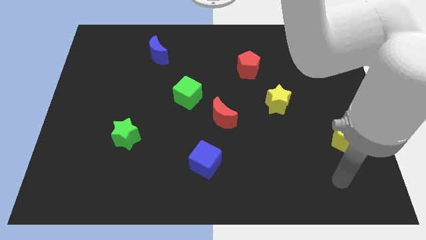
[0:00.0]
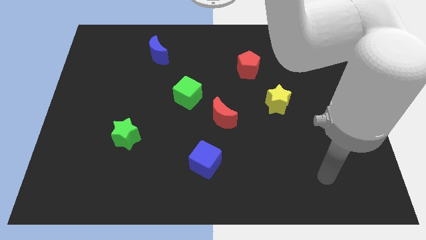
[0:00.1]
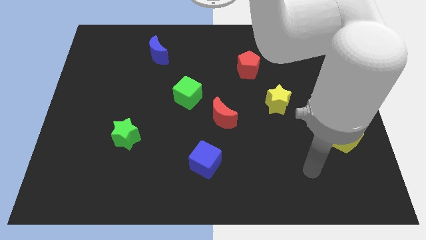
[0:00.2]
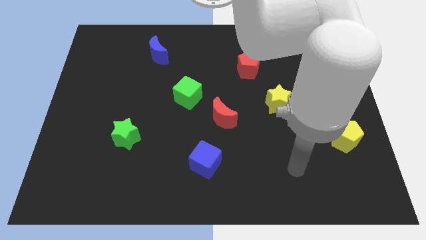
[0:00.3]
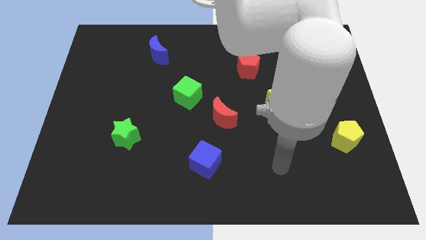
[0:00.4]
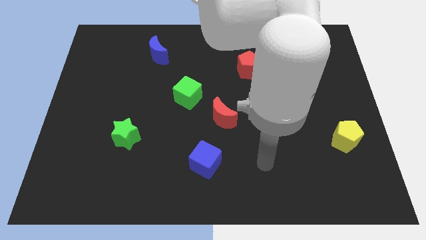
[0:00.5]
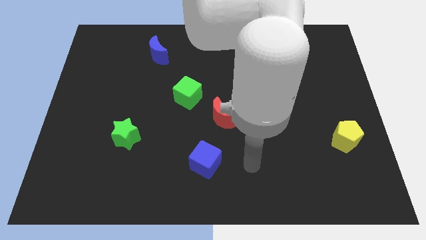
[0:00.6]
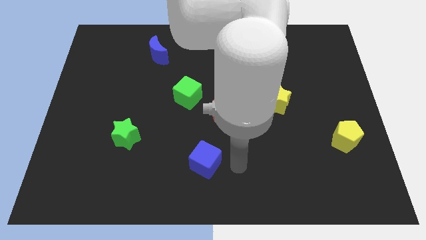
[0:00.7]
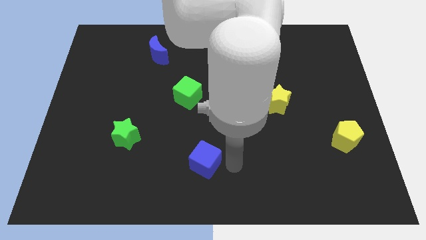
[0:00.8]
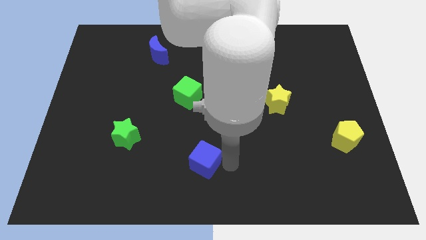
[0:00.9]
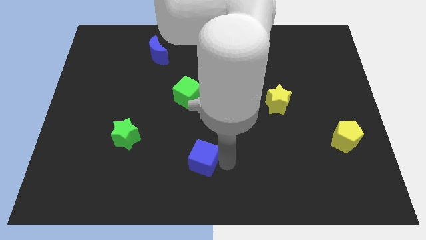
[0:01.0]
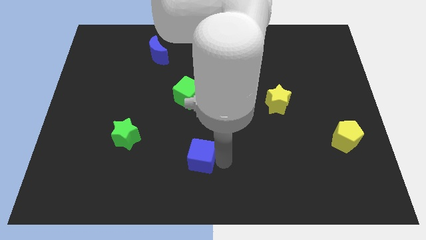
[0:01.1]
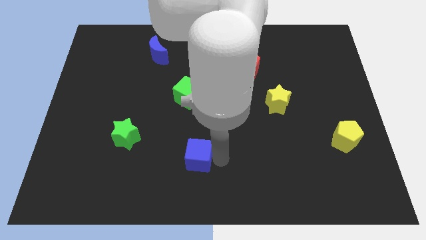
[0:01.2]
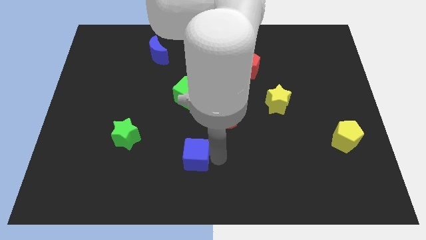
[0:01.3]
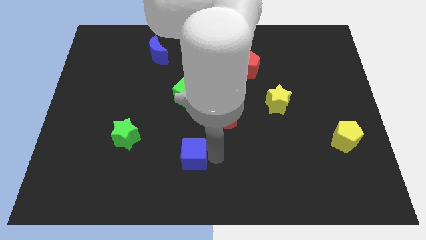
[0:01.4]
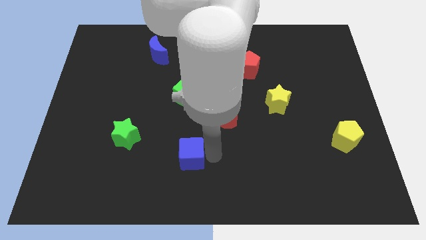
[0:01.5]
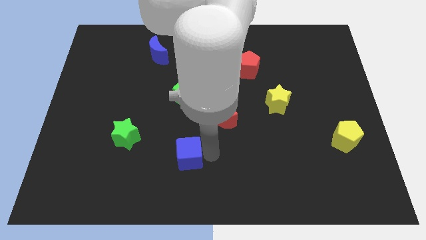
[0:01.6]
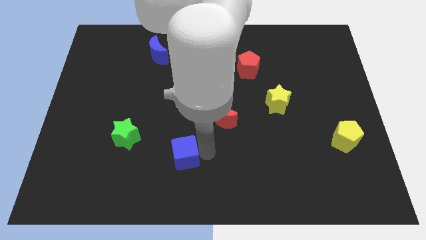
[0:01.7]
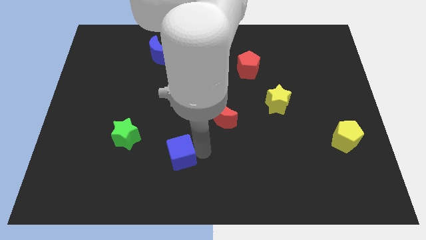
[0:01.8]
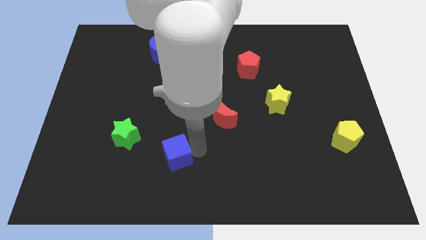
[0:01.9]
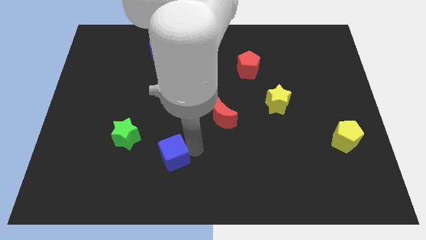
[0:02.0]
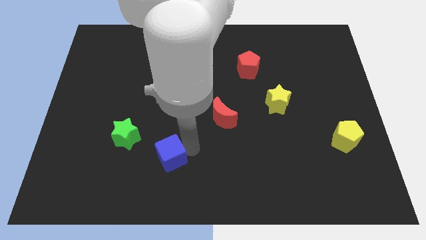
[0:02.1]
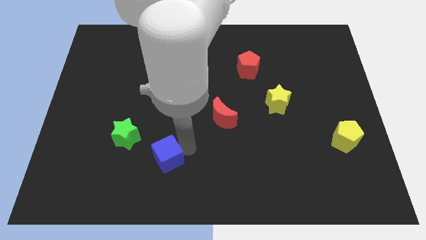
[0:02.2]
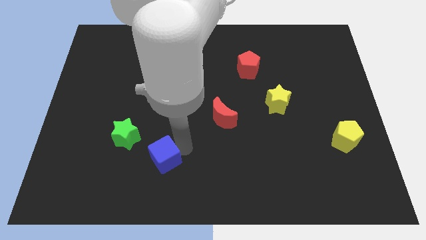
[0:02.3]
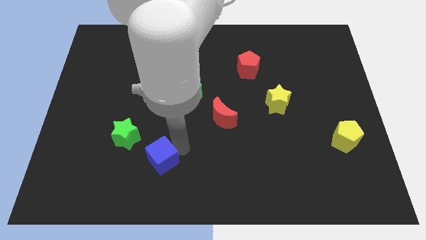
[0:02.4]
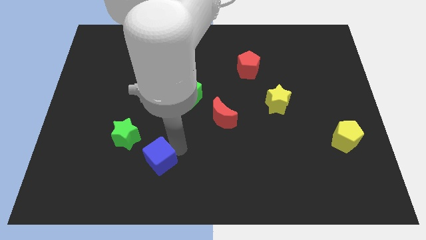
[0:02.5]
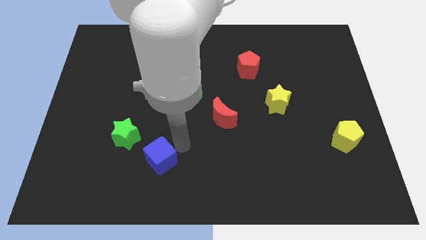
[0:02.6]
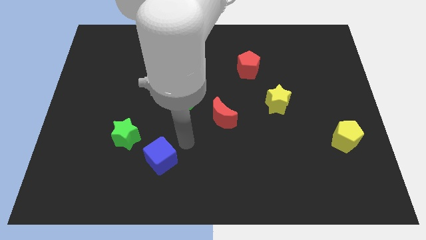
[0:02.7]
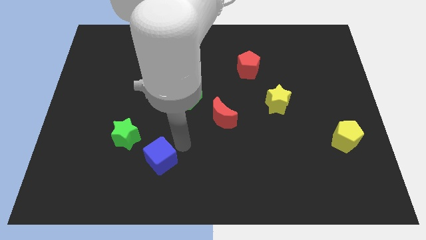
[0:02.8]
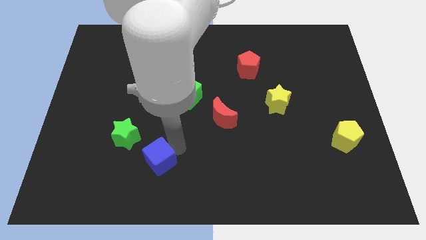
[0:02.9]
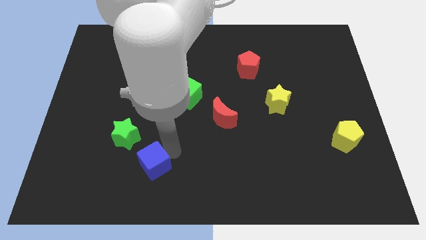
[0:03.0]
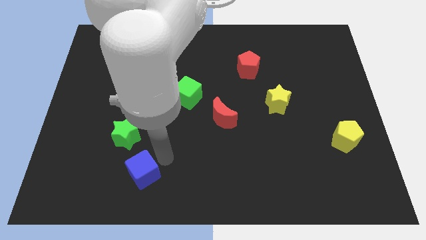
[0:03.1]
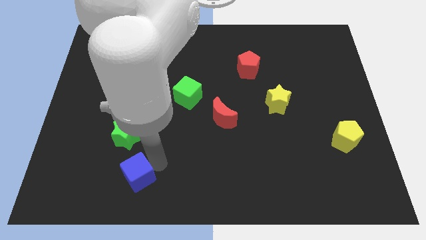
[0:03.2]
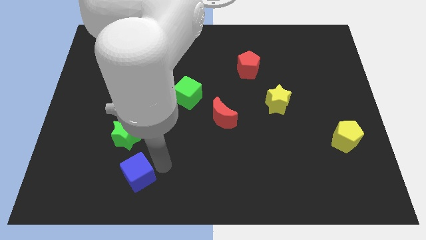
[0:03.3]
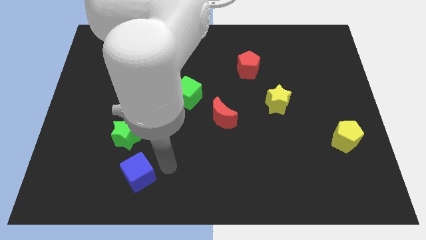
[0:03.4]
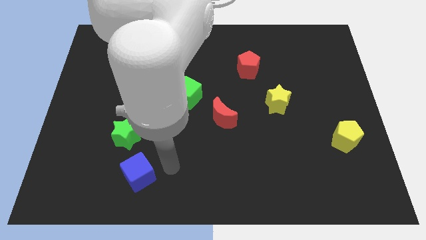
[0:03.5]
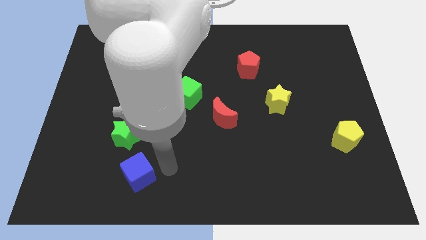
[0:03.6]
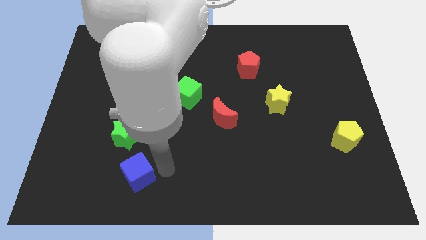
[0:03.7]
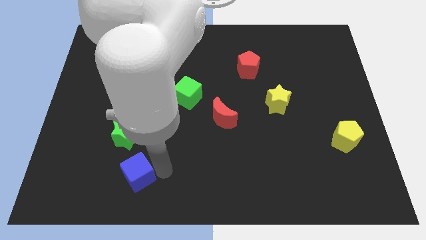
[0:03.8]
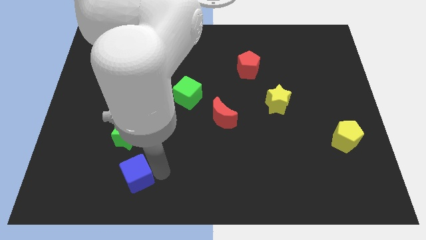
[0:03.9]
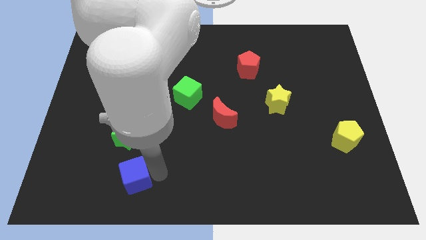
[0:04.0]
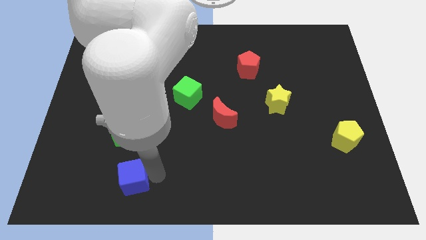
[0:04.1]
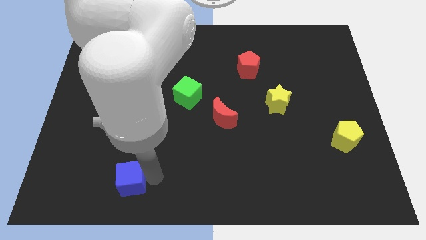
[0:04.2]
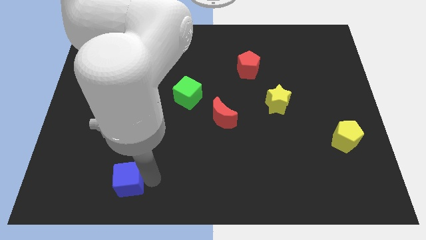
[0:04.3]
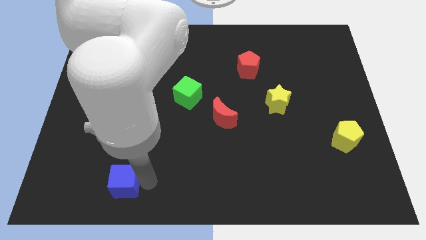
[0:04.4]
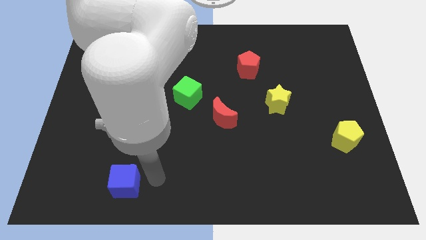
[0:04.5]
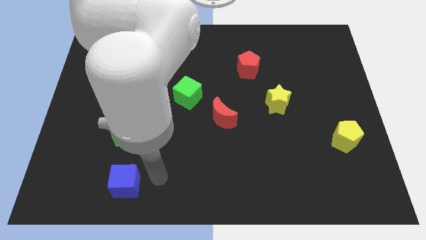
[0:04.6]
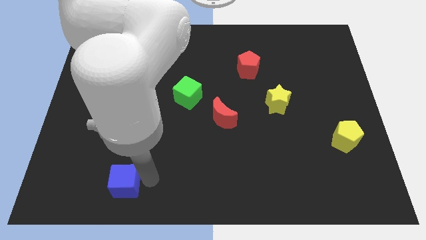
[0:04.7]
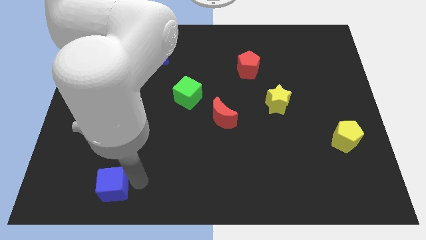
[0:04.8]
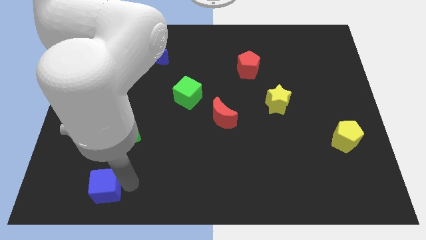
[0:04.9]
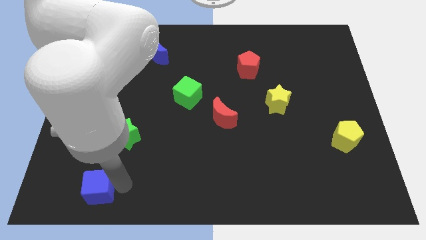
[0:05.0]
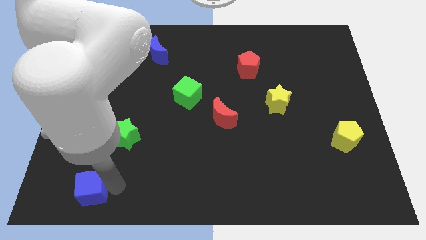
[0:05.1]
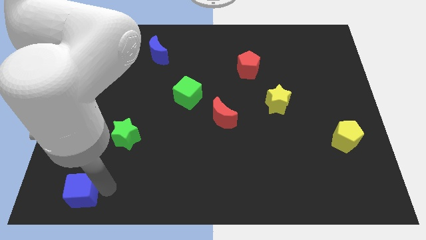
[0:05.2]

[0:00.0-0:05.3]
slide the blue cube to the bottom left corner

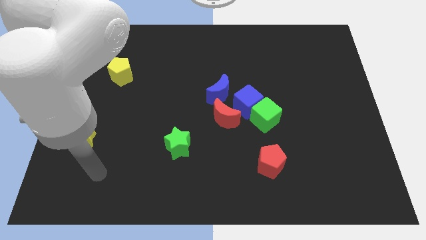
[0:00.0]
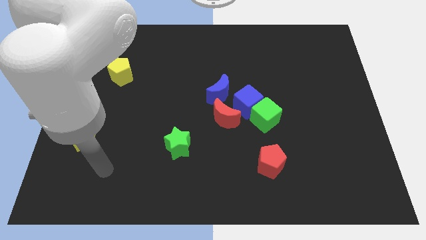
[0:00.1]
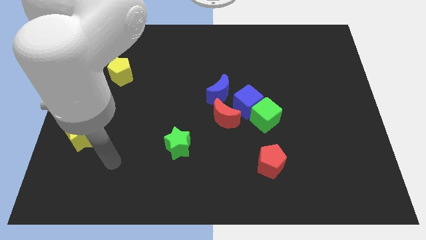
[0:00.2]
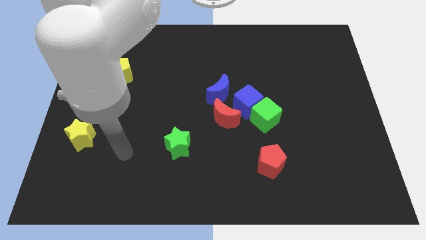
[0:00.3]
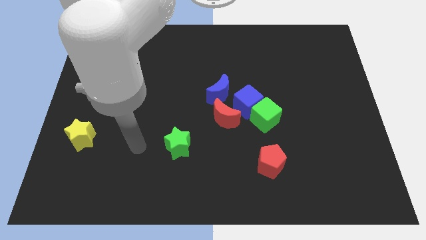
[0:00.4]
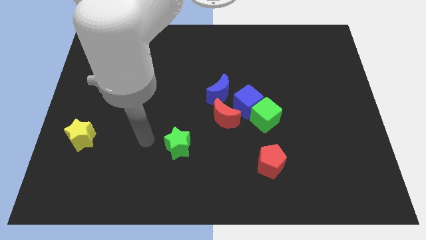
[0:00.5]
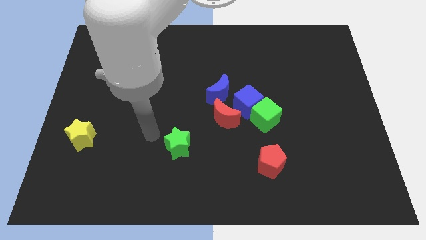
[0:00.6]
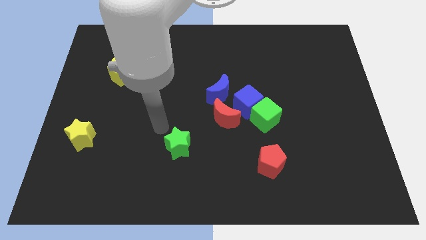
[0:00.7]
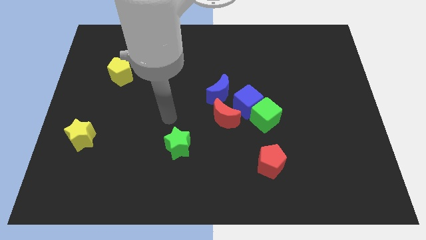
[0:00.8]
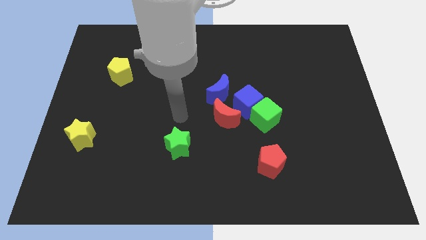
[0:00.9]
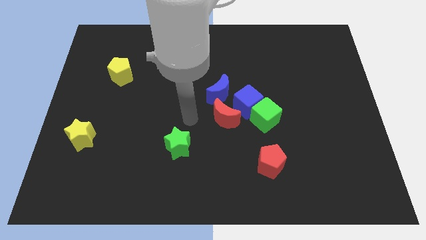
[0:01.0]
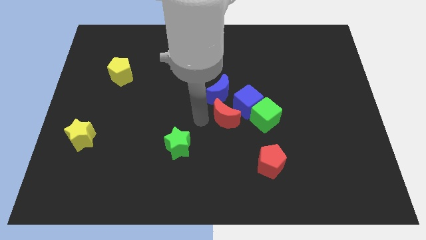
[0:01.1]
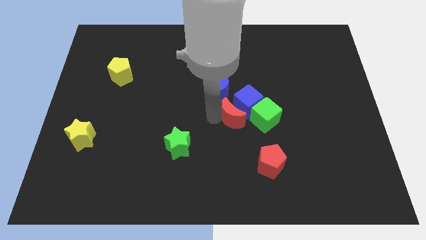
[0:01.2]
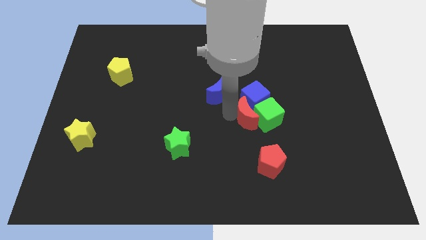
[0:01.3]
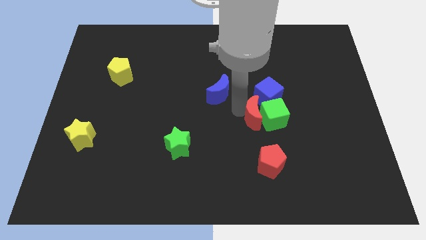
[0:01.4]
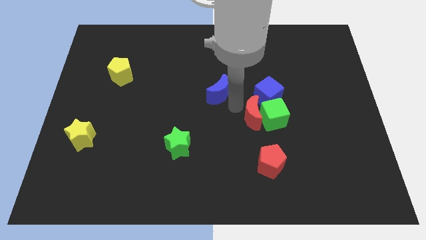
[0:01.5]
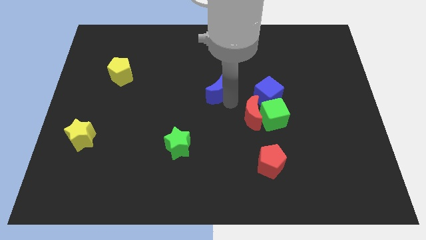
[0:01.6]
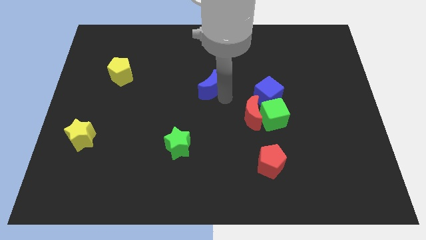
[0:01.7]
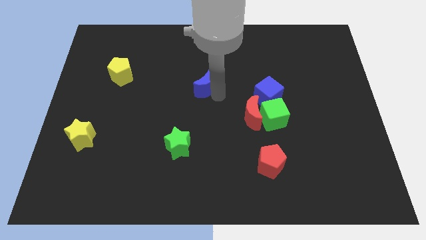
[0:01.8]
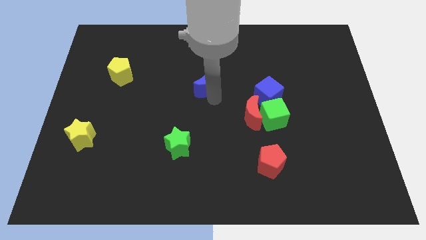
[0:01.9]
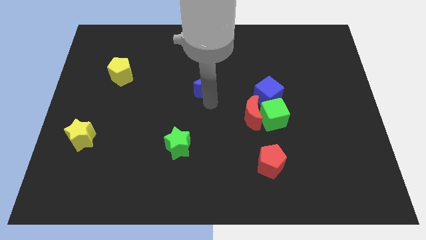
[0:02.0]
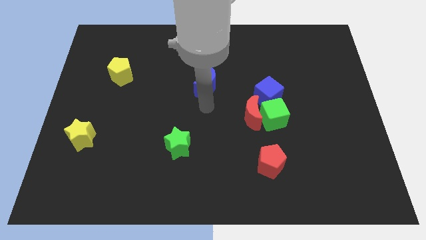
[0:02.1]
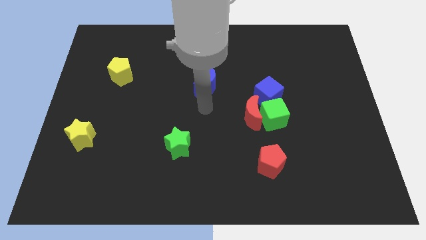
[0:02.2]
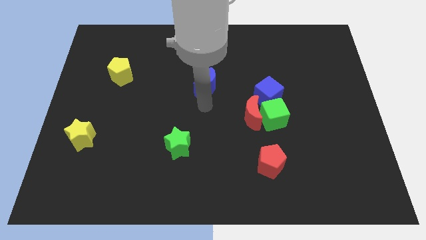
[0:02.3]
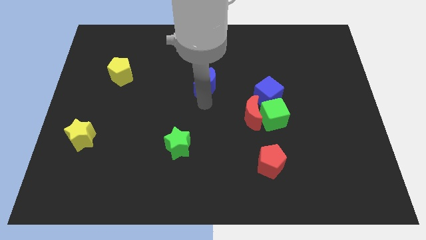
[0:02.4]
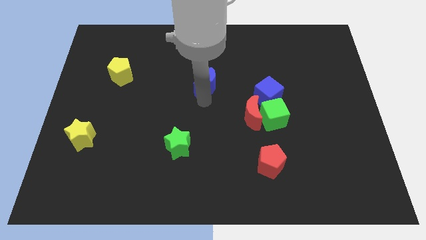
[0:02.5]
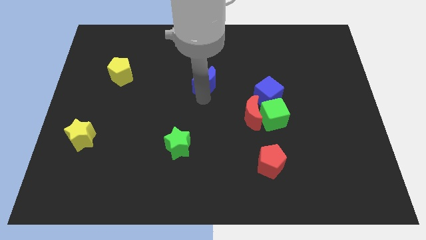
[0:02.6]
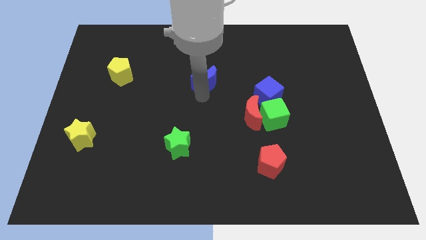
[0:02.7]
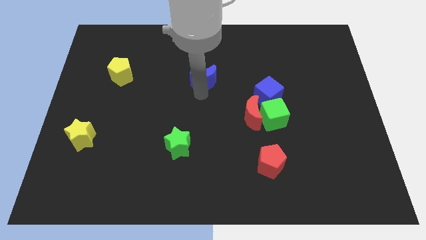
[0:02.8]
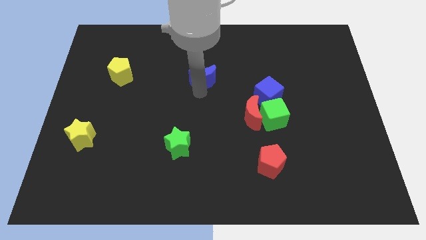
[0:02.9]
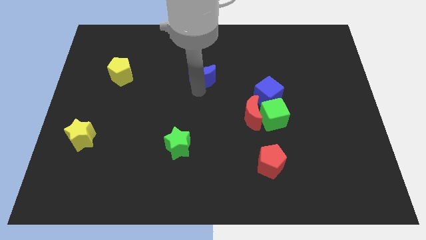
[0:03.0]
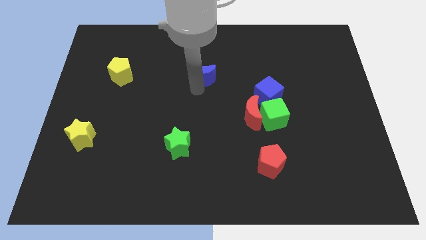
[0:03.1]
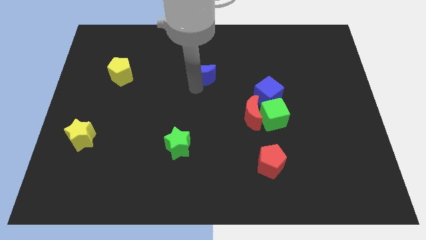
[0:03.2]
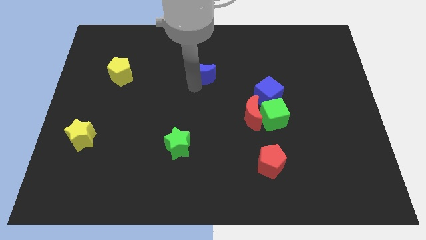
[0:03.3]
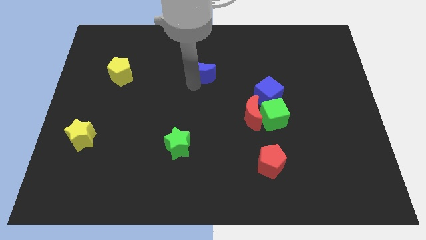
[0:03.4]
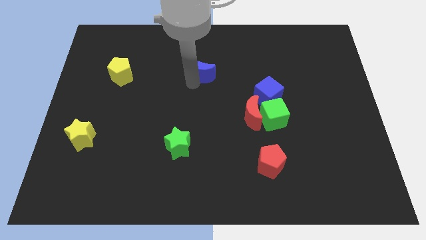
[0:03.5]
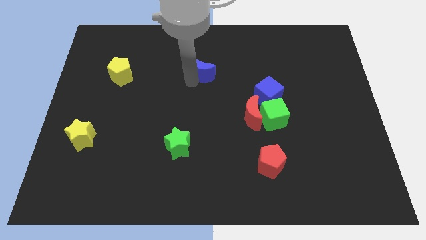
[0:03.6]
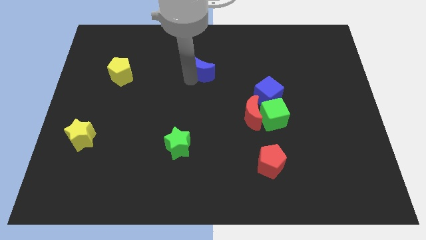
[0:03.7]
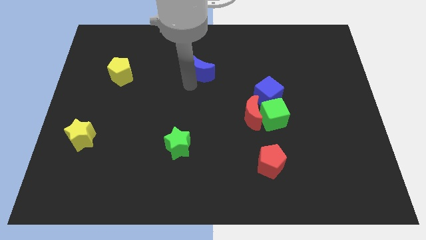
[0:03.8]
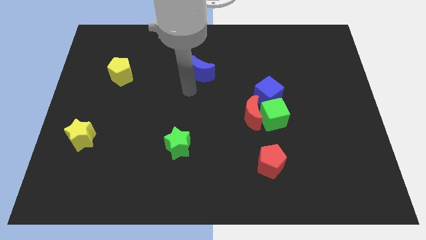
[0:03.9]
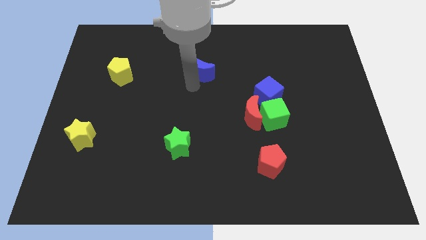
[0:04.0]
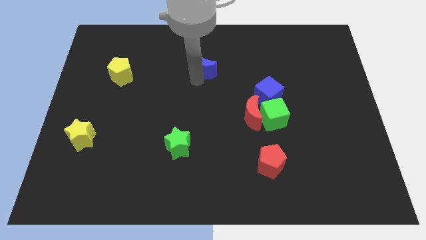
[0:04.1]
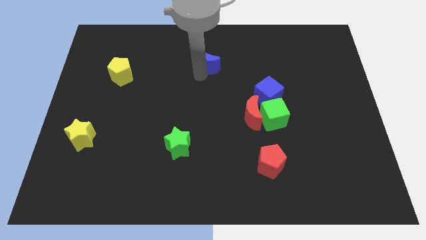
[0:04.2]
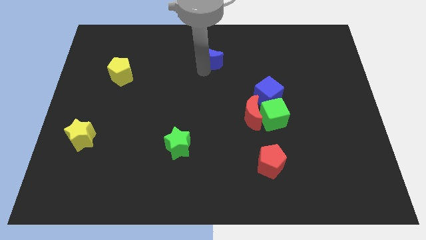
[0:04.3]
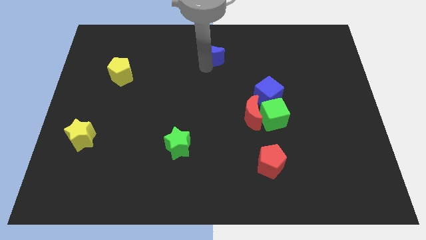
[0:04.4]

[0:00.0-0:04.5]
slide the blue moon to the top
